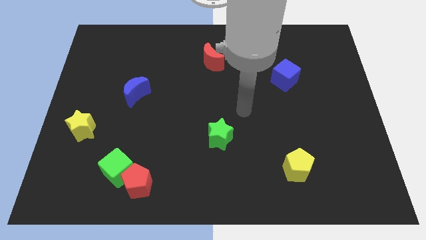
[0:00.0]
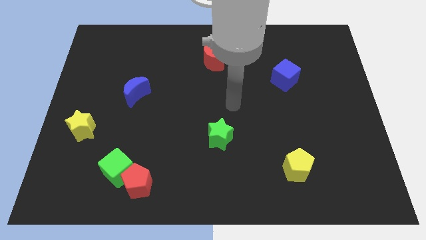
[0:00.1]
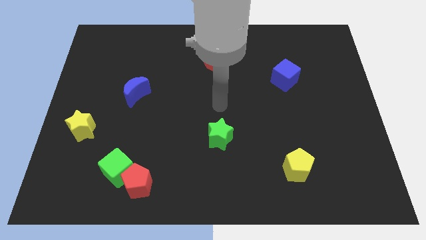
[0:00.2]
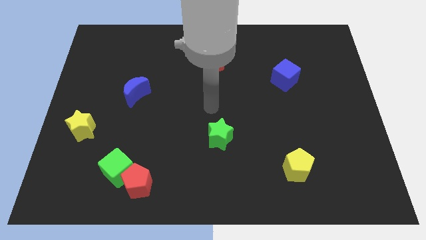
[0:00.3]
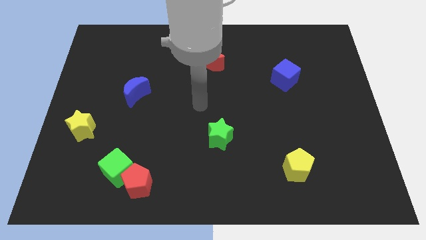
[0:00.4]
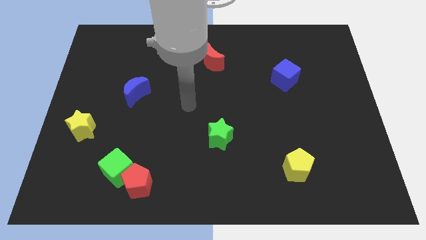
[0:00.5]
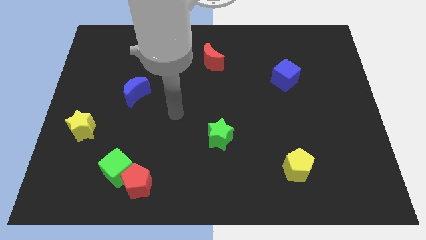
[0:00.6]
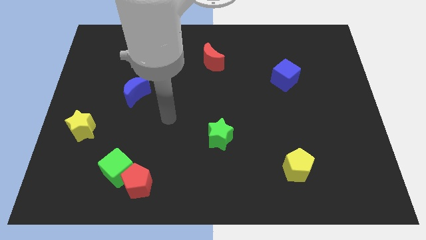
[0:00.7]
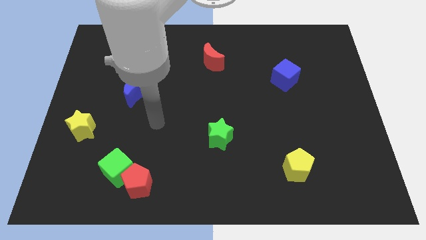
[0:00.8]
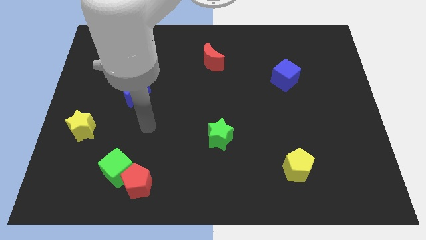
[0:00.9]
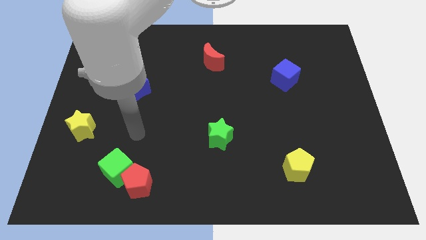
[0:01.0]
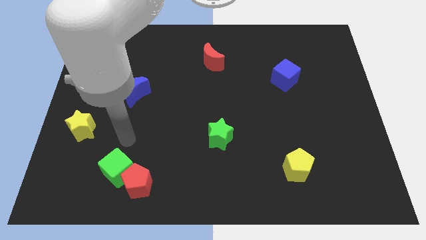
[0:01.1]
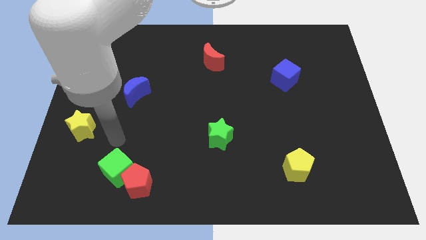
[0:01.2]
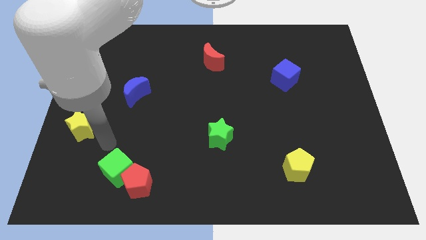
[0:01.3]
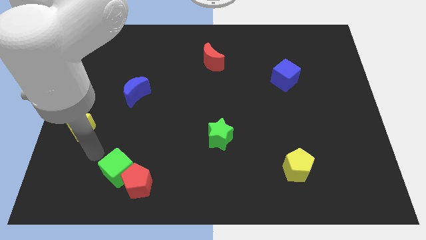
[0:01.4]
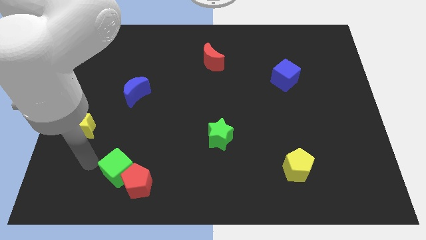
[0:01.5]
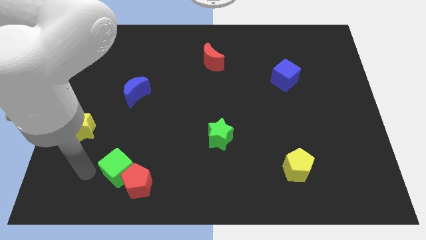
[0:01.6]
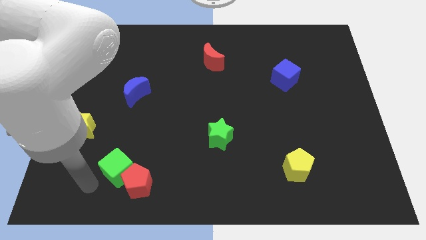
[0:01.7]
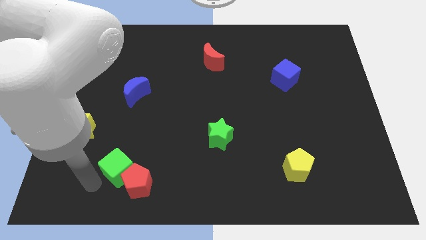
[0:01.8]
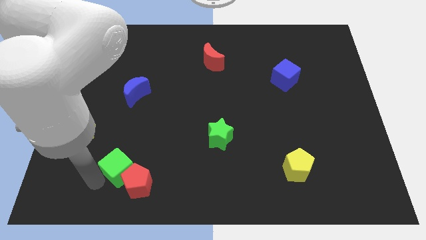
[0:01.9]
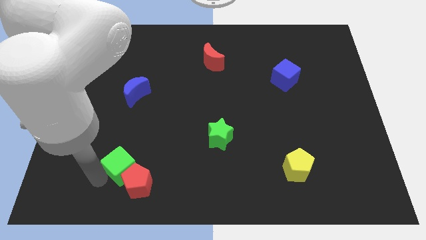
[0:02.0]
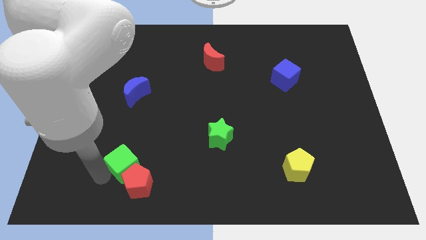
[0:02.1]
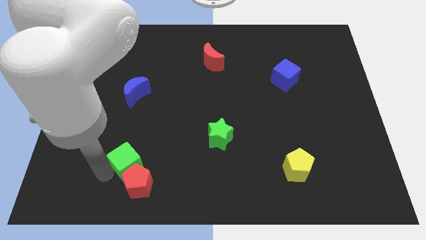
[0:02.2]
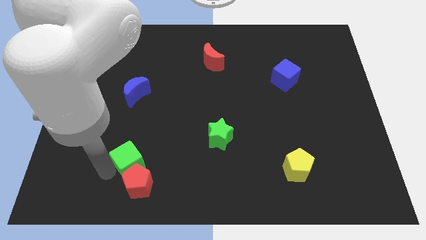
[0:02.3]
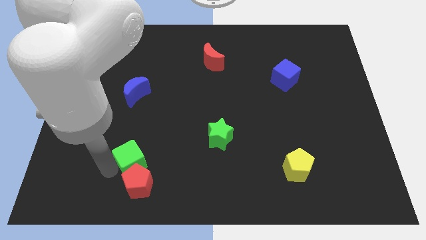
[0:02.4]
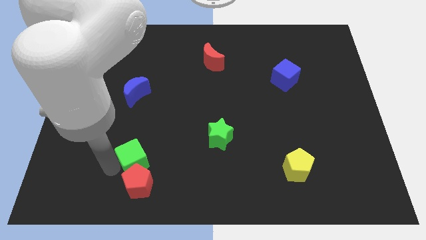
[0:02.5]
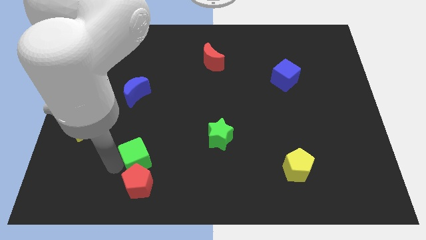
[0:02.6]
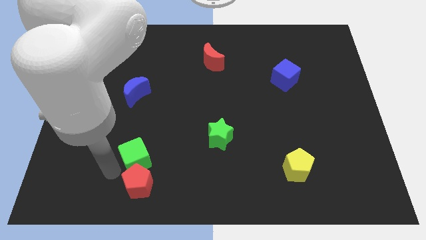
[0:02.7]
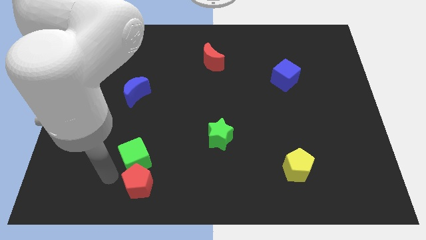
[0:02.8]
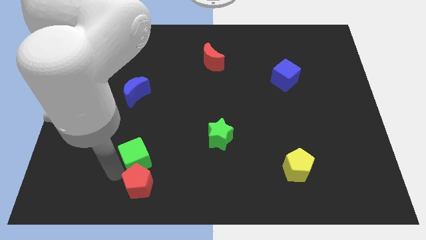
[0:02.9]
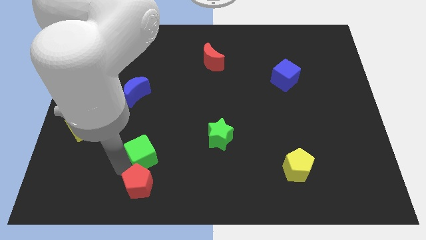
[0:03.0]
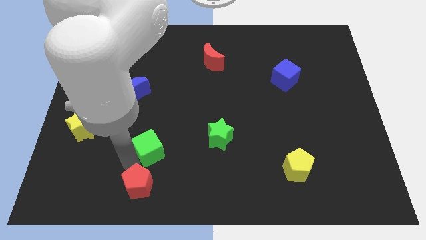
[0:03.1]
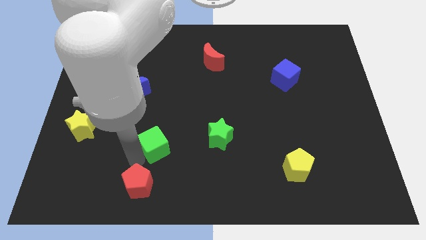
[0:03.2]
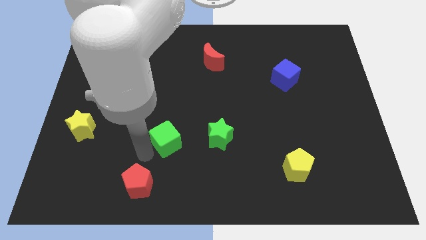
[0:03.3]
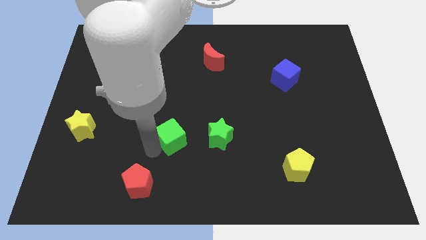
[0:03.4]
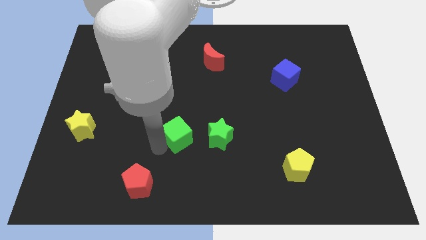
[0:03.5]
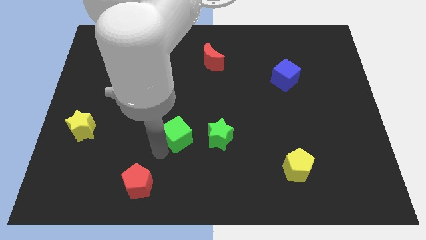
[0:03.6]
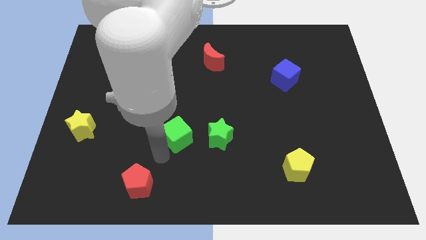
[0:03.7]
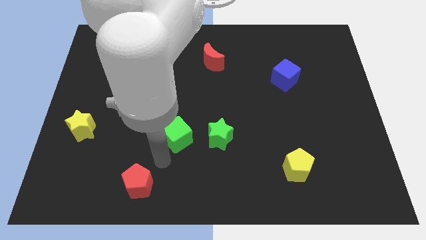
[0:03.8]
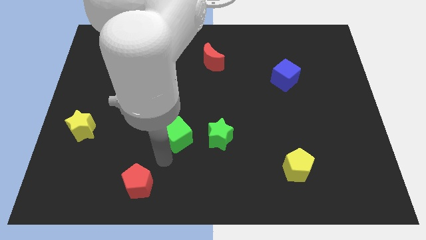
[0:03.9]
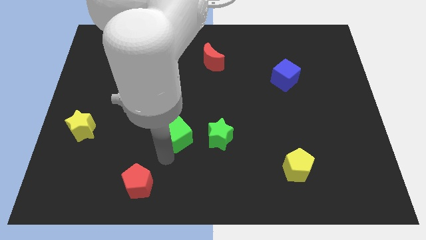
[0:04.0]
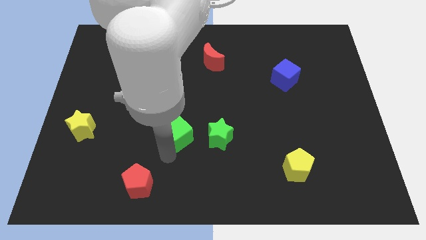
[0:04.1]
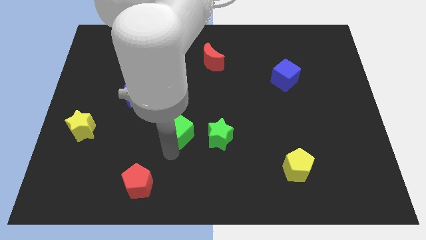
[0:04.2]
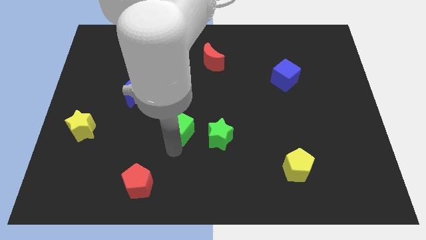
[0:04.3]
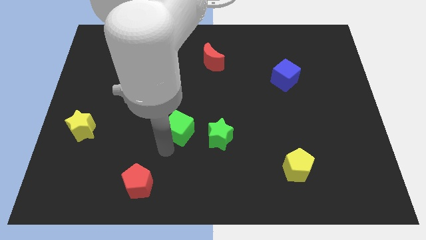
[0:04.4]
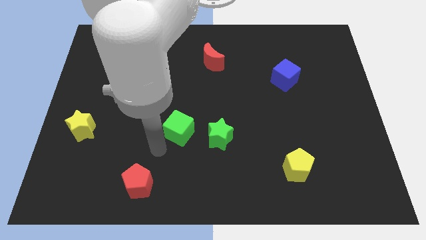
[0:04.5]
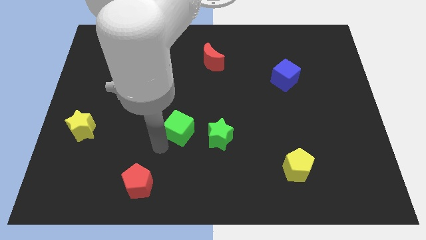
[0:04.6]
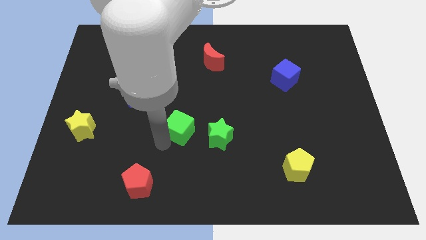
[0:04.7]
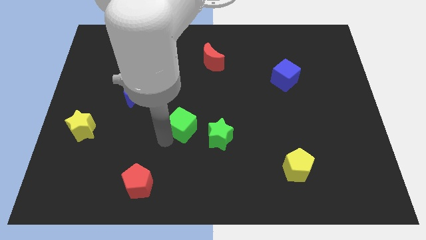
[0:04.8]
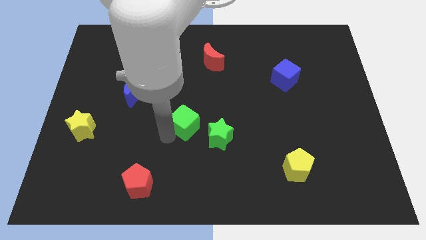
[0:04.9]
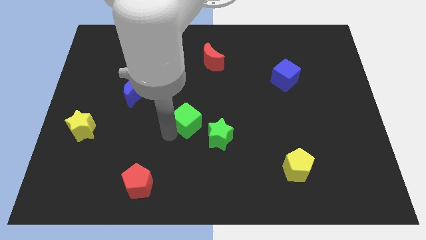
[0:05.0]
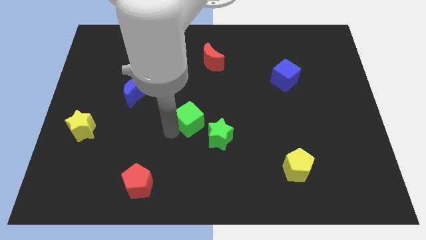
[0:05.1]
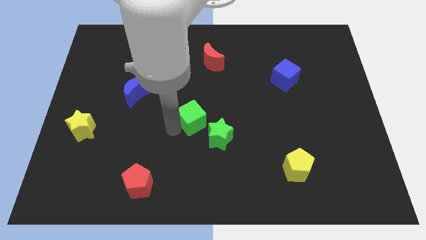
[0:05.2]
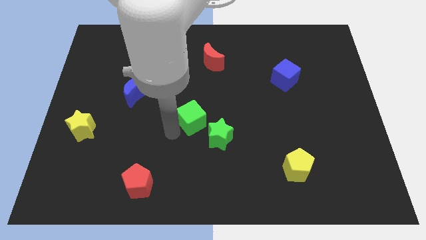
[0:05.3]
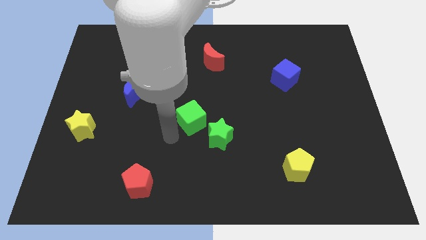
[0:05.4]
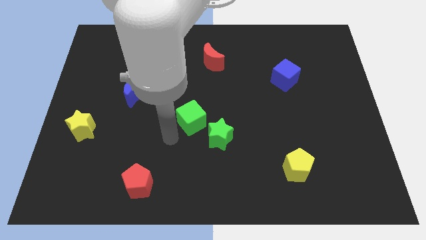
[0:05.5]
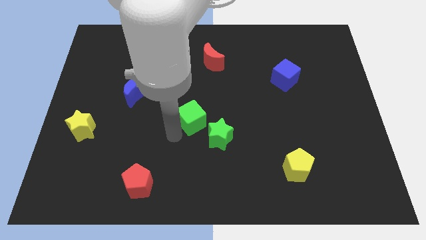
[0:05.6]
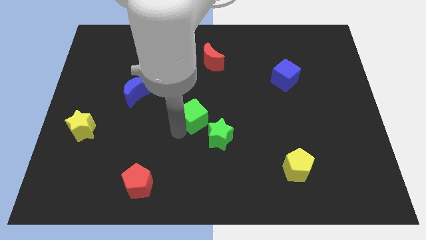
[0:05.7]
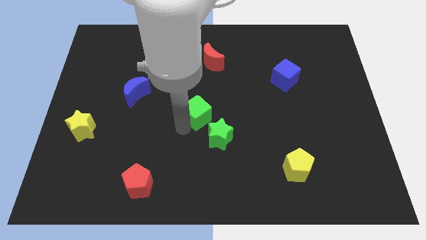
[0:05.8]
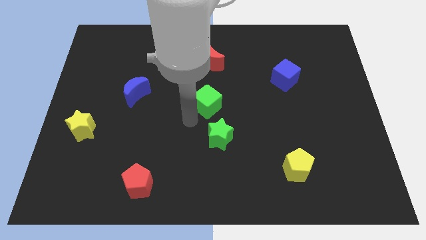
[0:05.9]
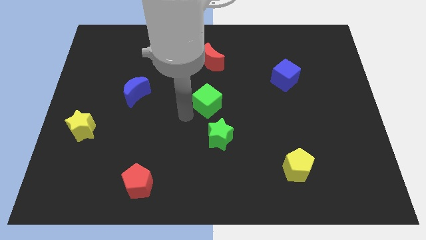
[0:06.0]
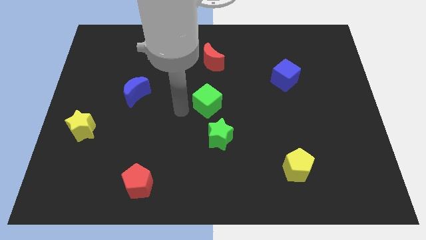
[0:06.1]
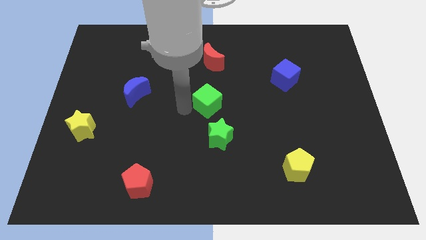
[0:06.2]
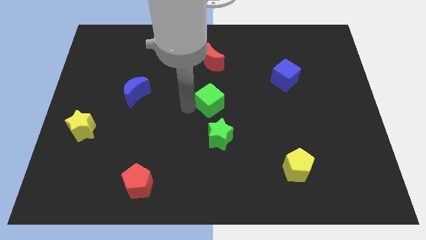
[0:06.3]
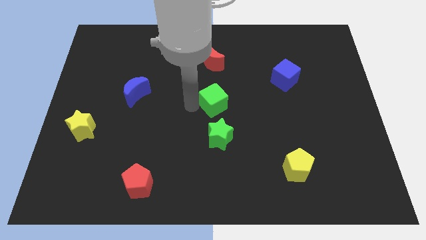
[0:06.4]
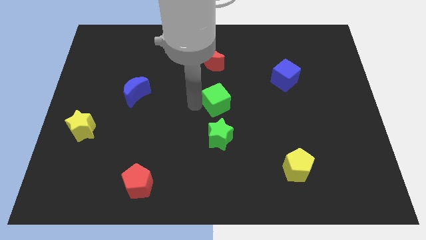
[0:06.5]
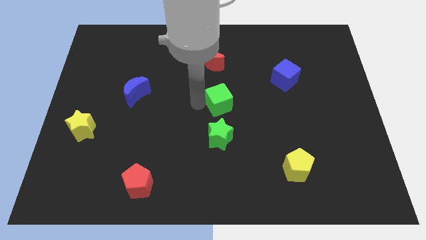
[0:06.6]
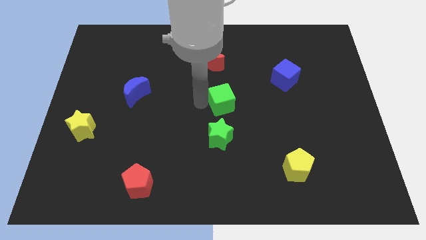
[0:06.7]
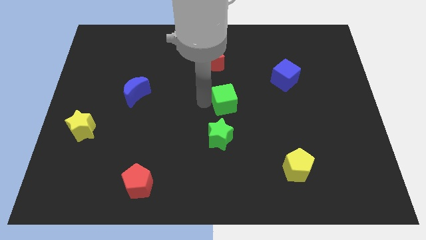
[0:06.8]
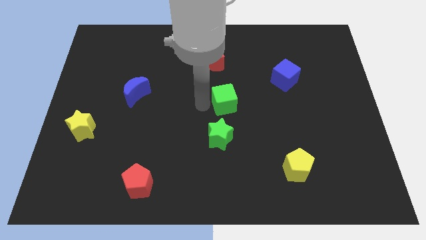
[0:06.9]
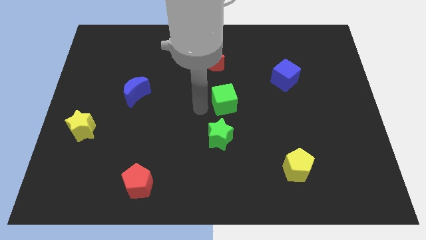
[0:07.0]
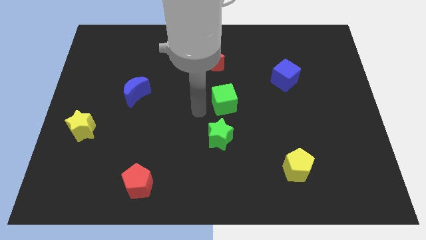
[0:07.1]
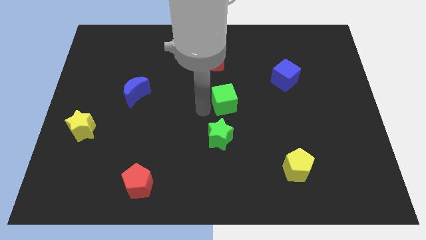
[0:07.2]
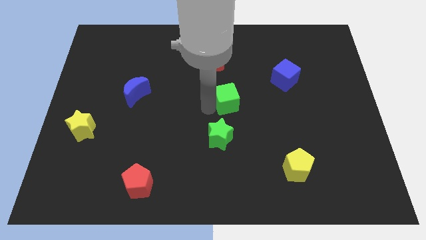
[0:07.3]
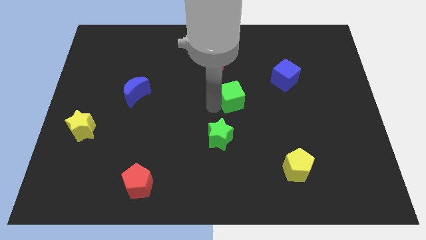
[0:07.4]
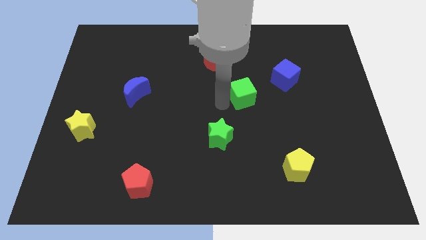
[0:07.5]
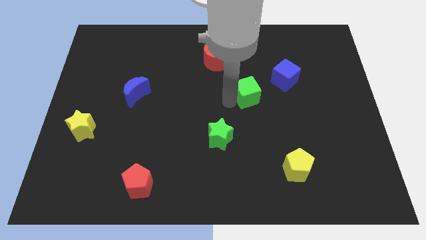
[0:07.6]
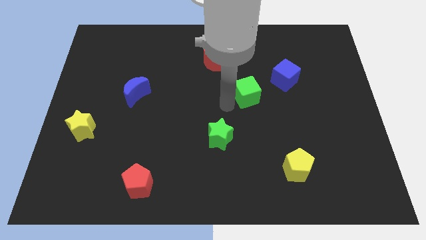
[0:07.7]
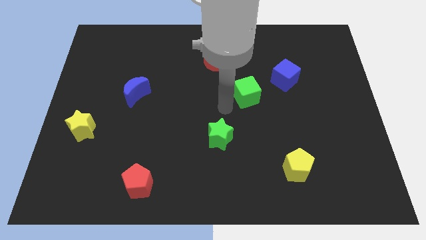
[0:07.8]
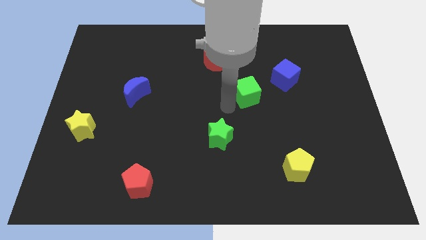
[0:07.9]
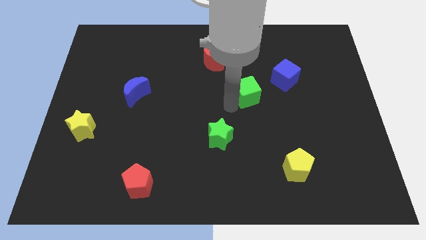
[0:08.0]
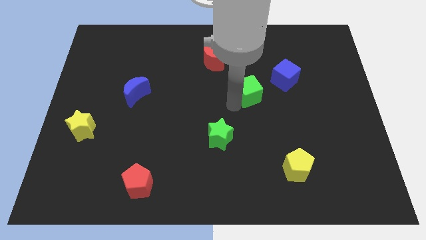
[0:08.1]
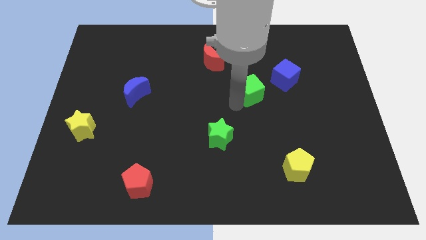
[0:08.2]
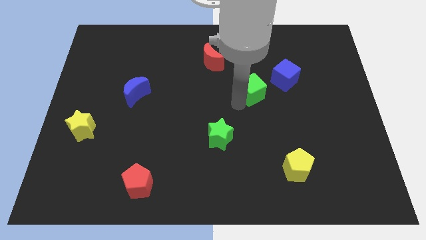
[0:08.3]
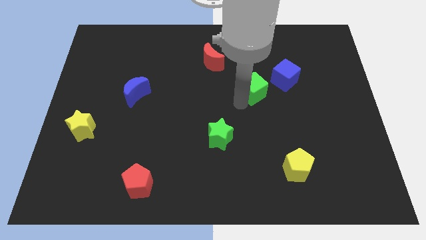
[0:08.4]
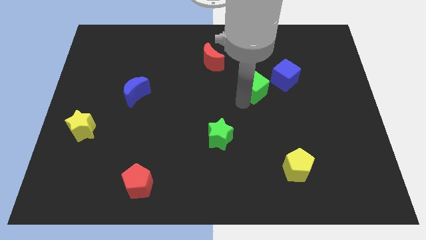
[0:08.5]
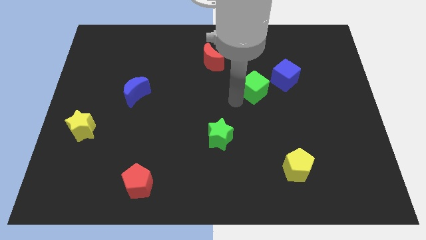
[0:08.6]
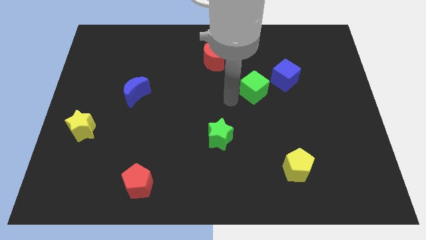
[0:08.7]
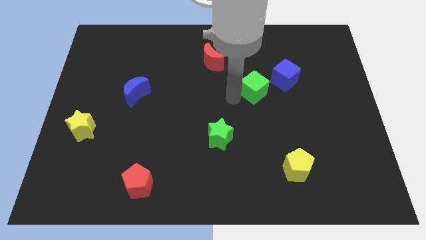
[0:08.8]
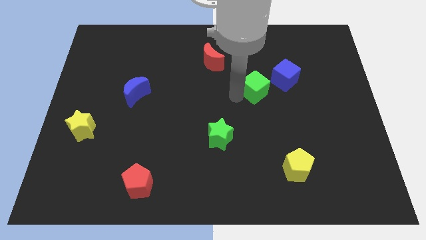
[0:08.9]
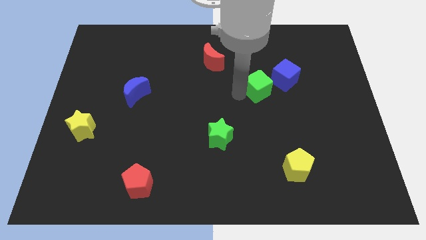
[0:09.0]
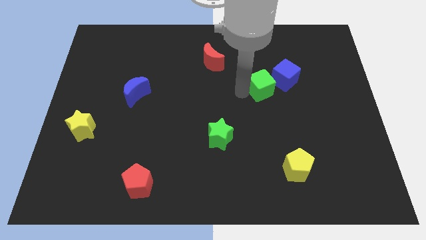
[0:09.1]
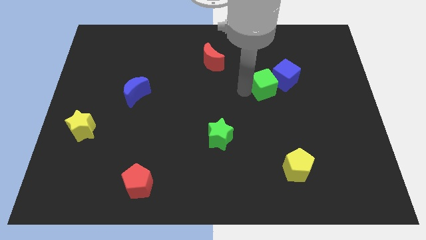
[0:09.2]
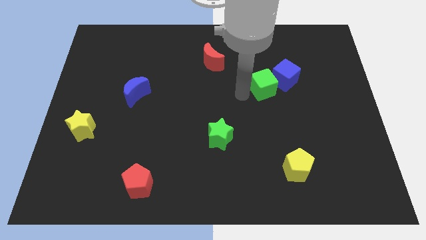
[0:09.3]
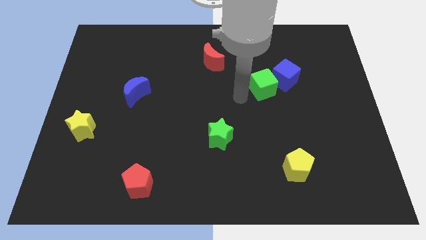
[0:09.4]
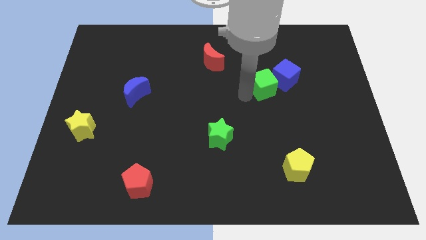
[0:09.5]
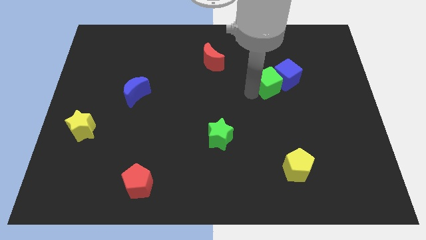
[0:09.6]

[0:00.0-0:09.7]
put the green cube to the blue cube
